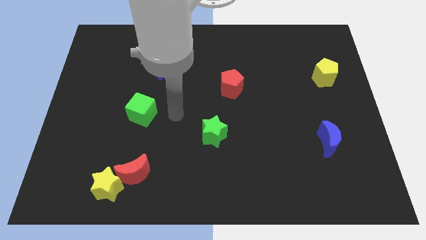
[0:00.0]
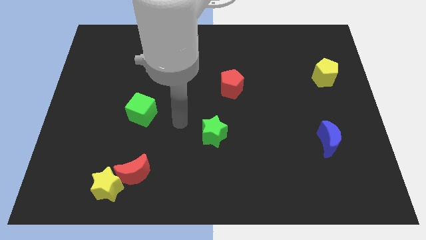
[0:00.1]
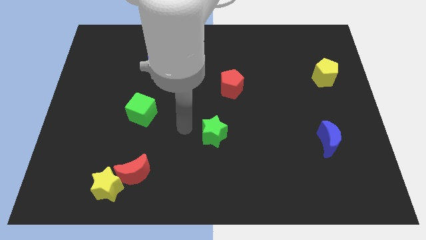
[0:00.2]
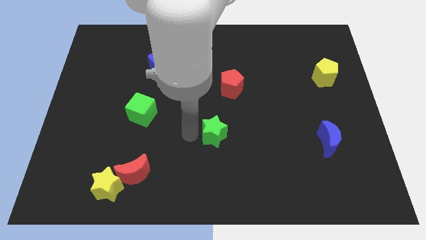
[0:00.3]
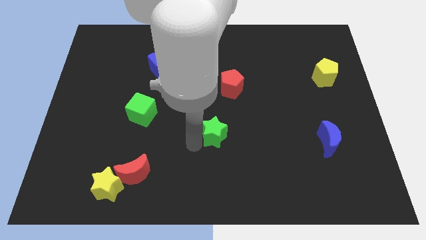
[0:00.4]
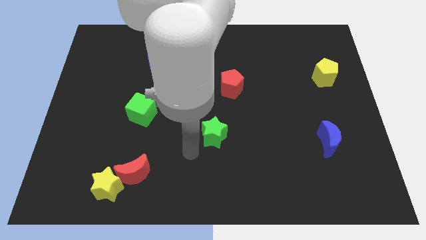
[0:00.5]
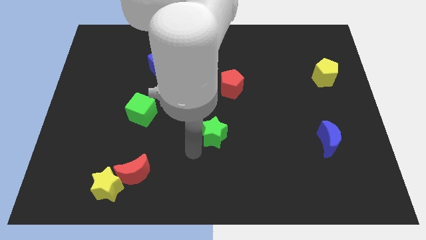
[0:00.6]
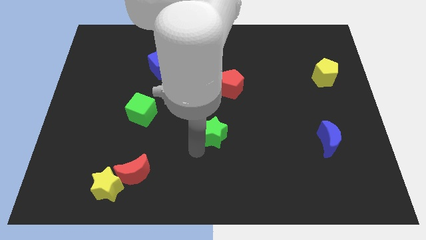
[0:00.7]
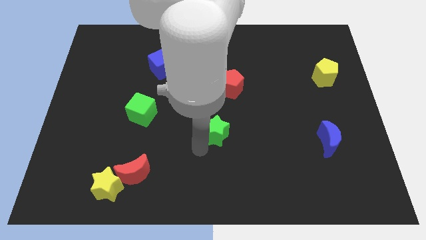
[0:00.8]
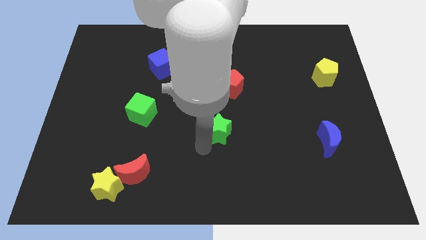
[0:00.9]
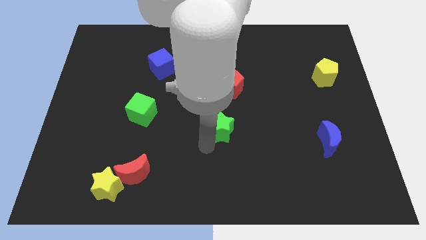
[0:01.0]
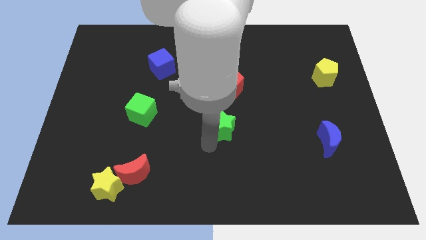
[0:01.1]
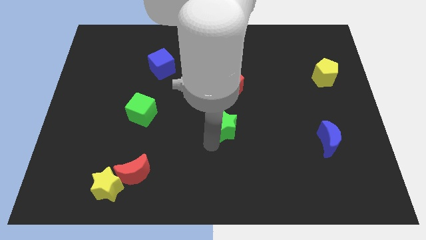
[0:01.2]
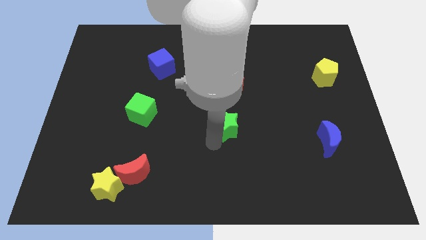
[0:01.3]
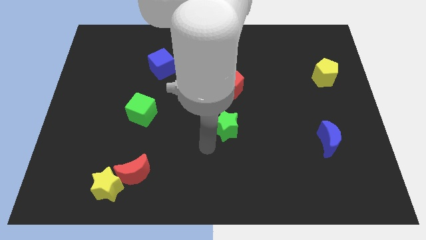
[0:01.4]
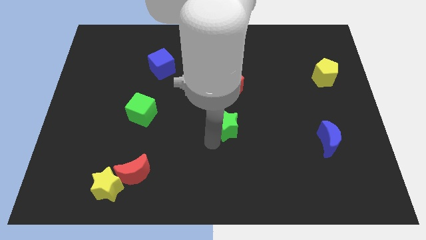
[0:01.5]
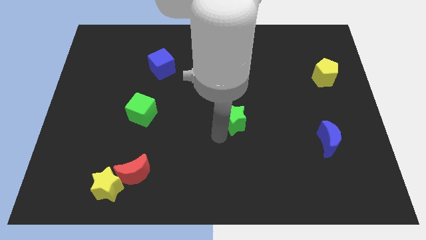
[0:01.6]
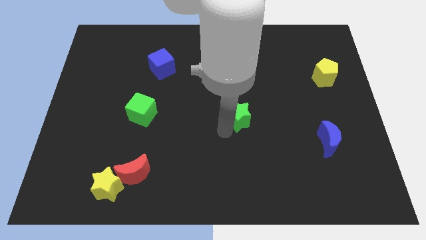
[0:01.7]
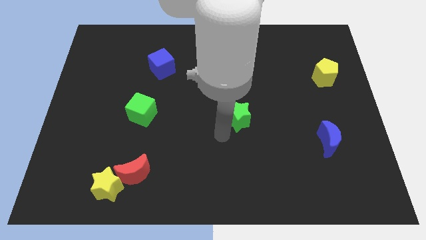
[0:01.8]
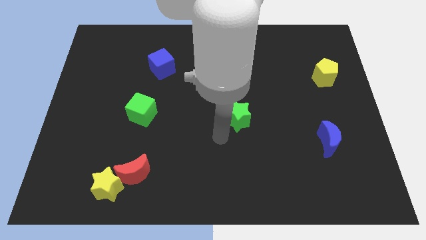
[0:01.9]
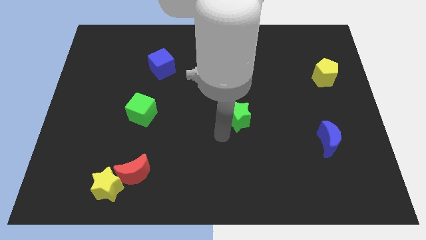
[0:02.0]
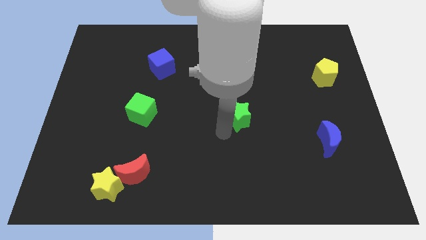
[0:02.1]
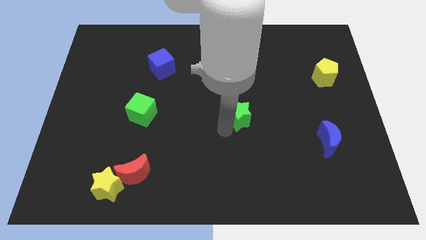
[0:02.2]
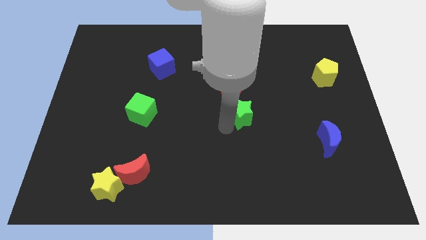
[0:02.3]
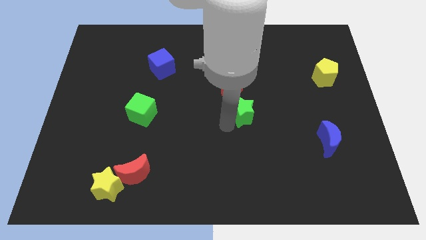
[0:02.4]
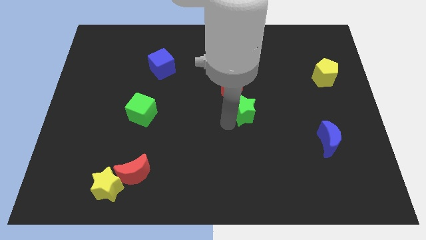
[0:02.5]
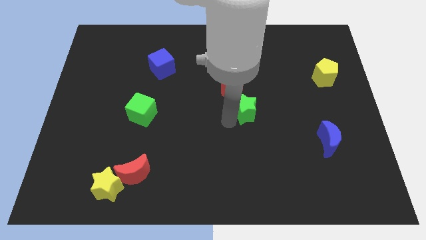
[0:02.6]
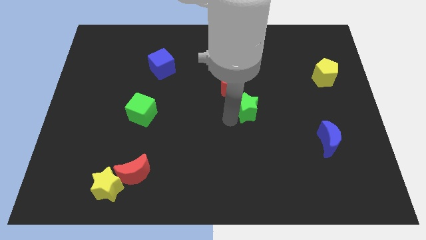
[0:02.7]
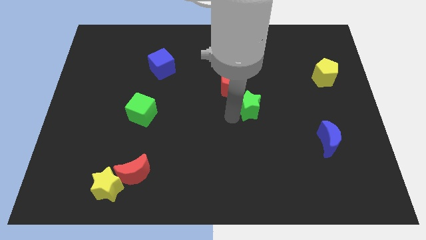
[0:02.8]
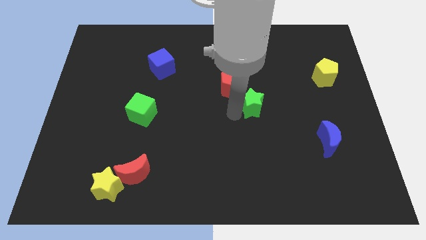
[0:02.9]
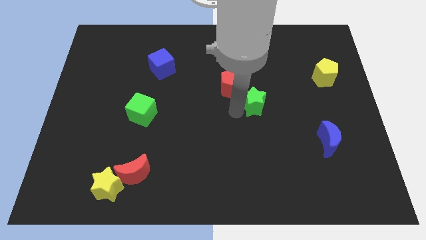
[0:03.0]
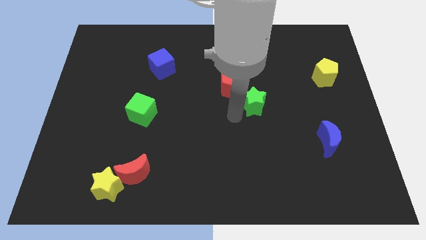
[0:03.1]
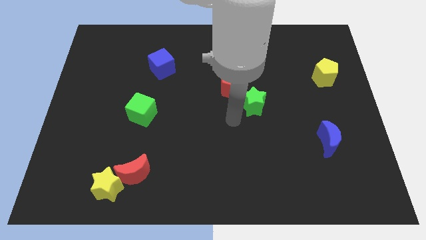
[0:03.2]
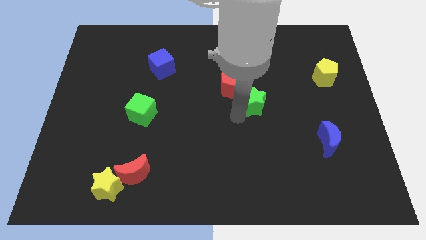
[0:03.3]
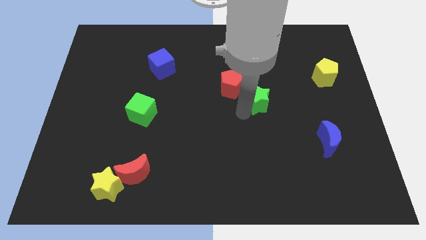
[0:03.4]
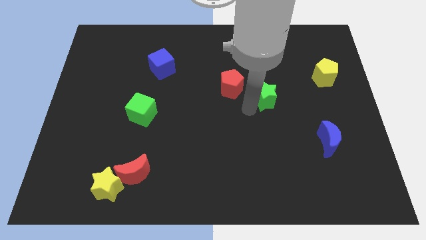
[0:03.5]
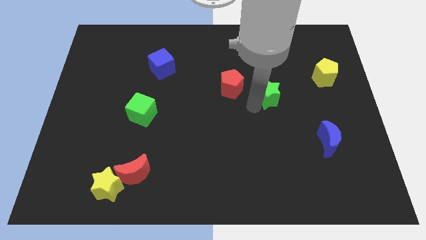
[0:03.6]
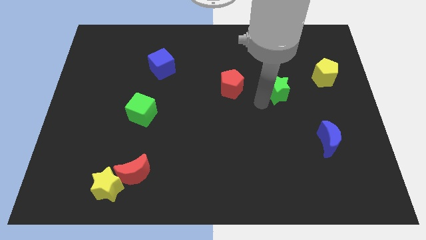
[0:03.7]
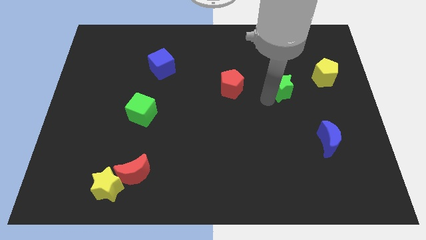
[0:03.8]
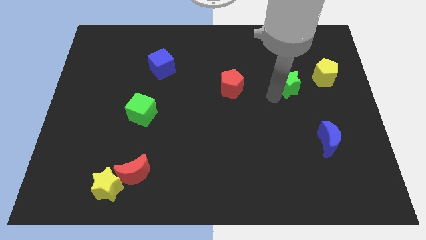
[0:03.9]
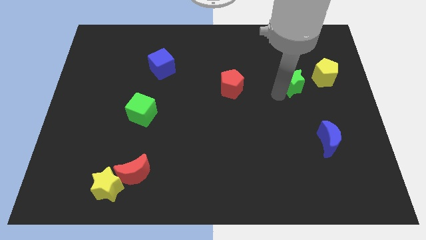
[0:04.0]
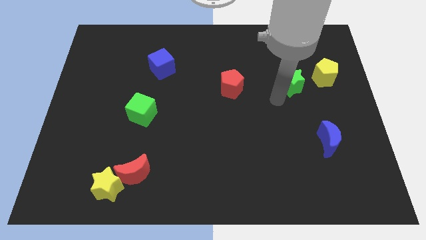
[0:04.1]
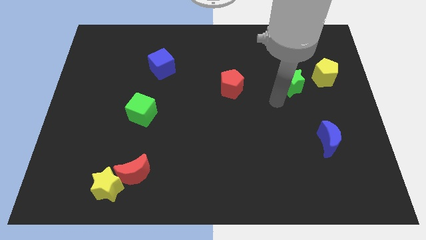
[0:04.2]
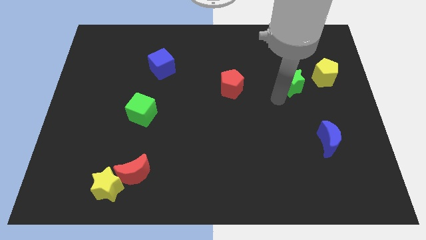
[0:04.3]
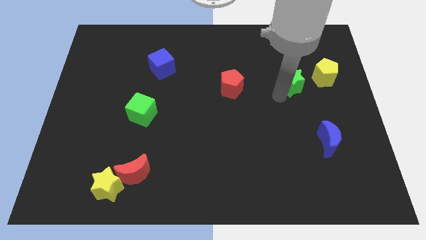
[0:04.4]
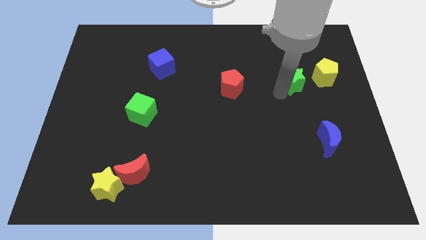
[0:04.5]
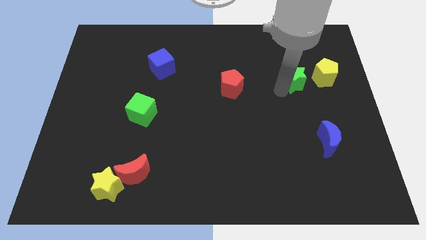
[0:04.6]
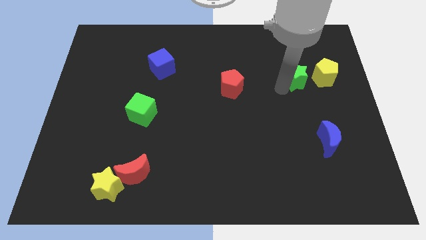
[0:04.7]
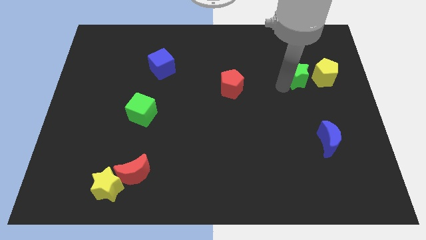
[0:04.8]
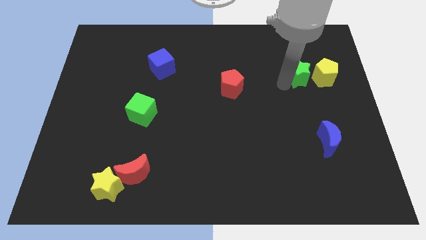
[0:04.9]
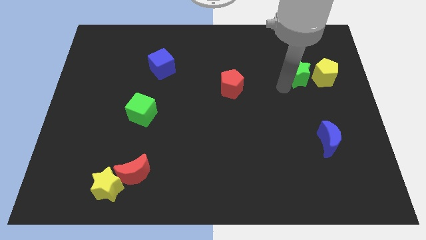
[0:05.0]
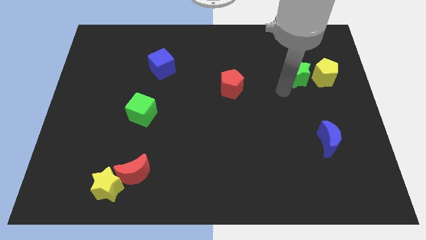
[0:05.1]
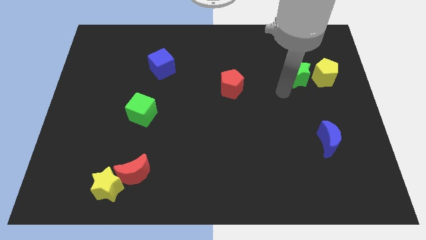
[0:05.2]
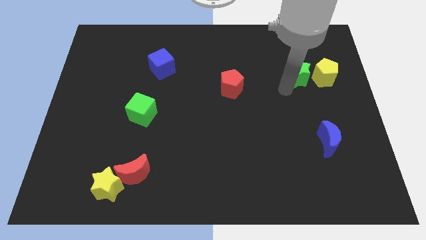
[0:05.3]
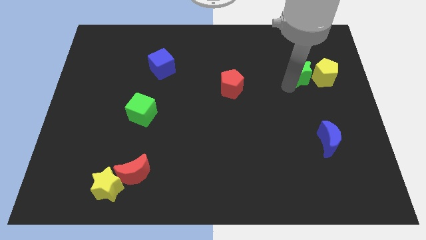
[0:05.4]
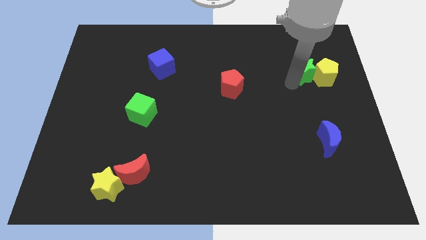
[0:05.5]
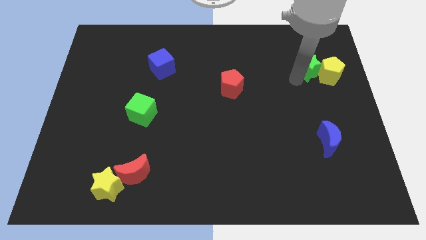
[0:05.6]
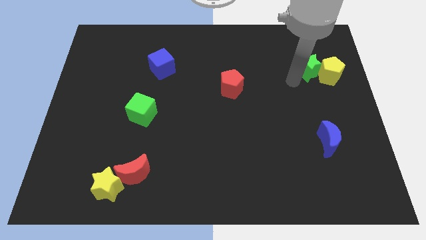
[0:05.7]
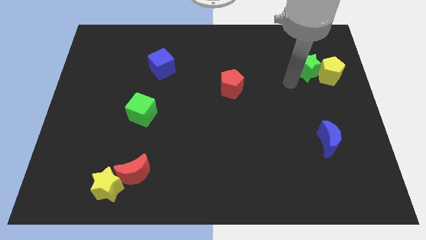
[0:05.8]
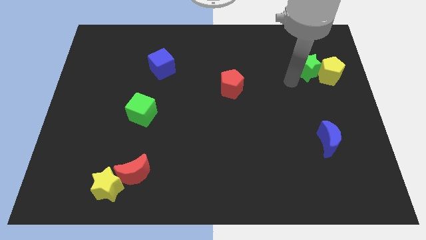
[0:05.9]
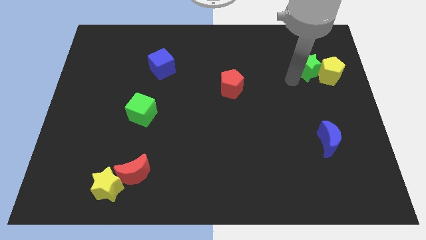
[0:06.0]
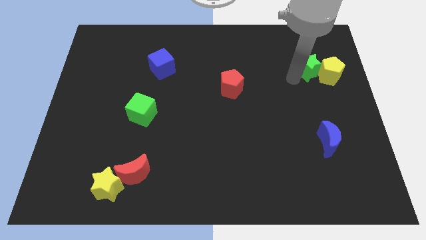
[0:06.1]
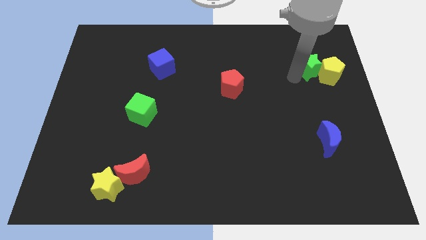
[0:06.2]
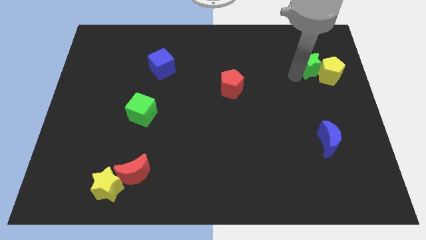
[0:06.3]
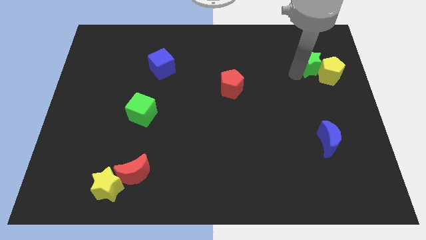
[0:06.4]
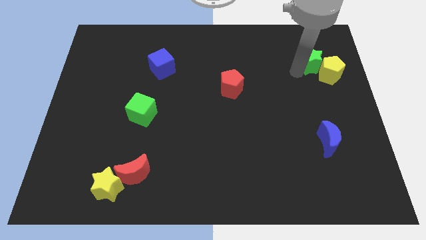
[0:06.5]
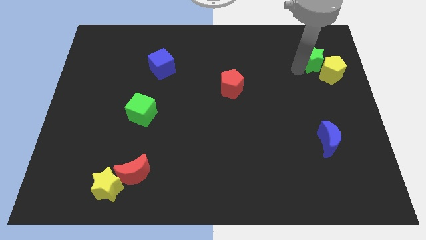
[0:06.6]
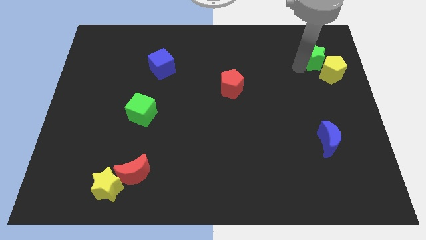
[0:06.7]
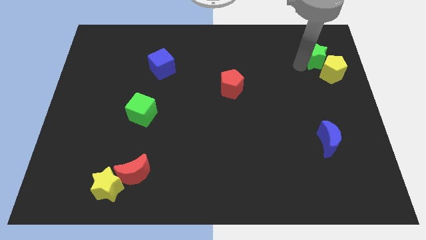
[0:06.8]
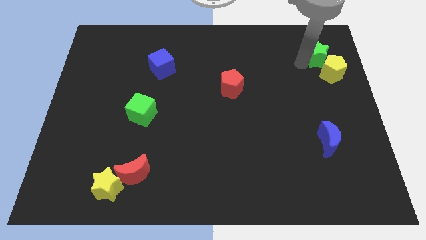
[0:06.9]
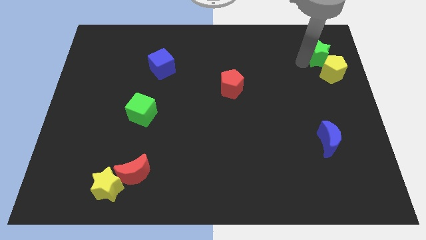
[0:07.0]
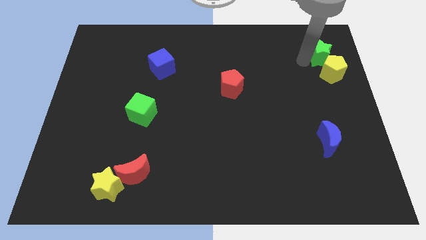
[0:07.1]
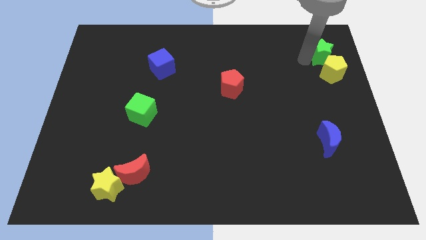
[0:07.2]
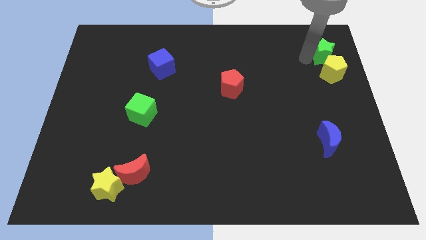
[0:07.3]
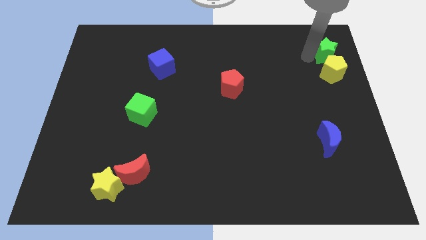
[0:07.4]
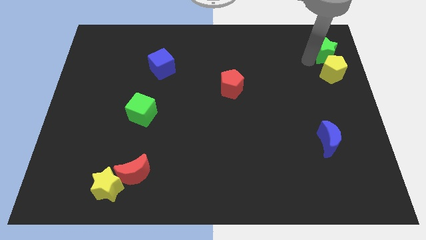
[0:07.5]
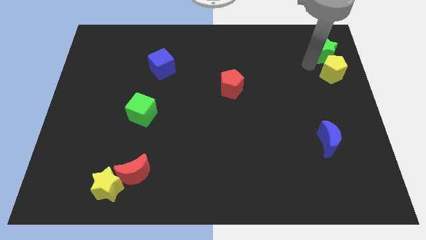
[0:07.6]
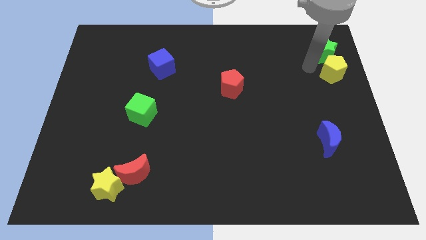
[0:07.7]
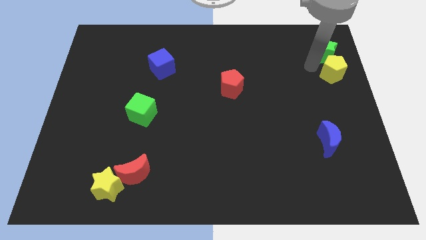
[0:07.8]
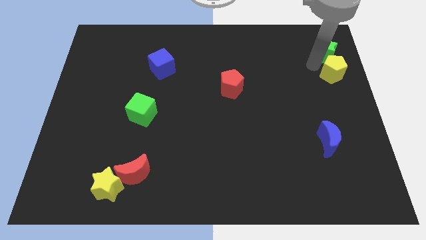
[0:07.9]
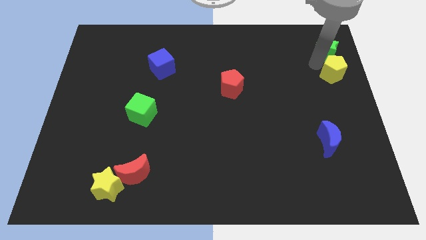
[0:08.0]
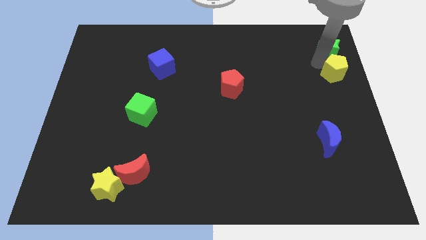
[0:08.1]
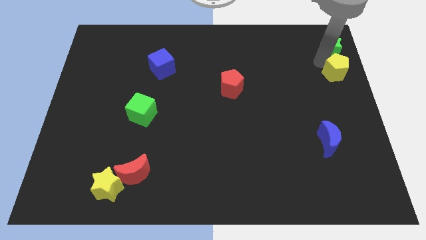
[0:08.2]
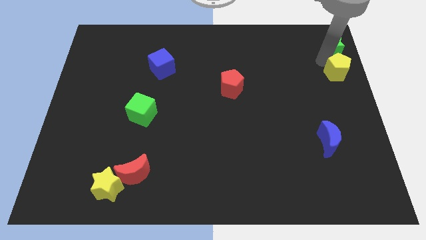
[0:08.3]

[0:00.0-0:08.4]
move the green star to the top right corner
